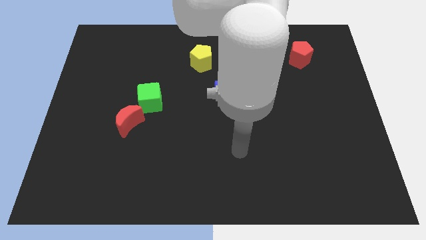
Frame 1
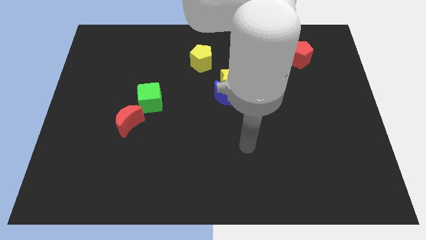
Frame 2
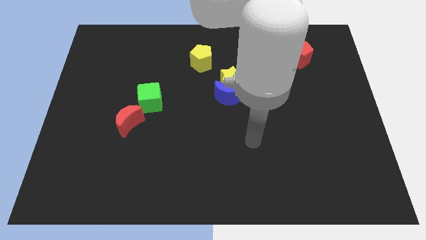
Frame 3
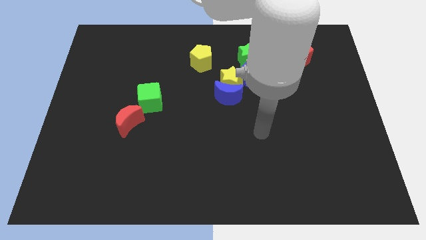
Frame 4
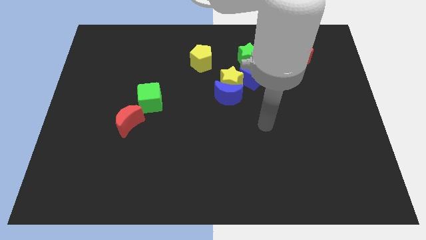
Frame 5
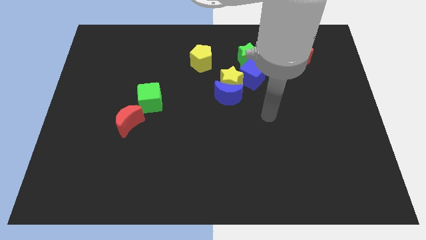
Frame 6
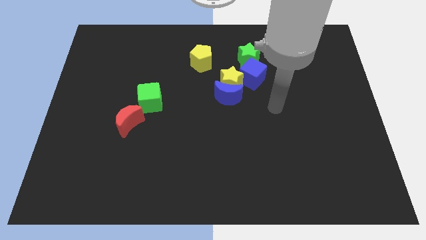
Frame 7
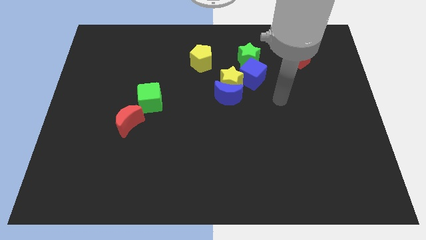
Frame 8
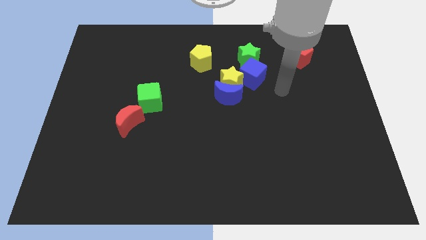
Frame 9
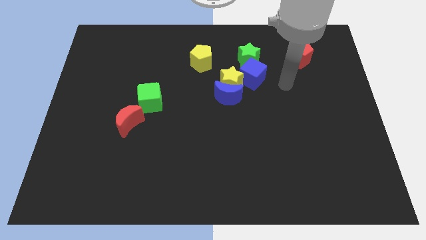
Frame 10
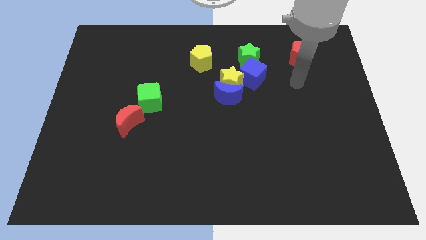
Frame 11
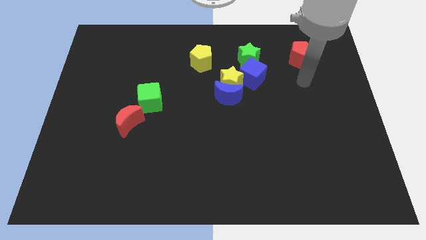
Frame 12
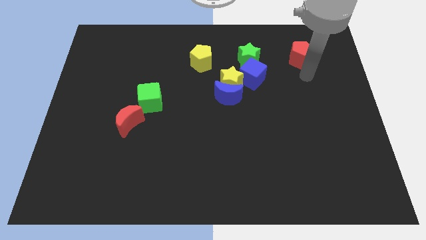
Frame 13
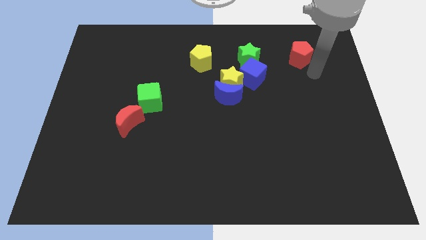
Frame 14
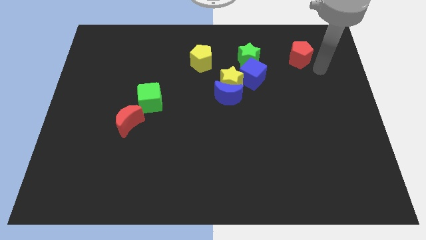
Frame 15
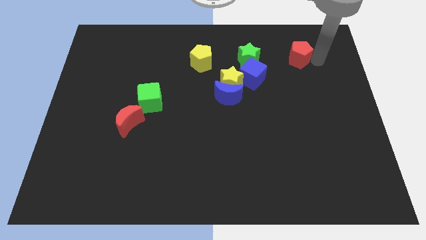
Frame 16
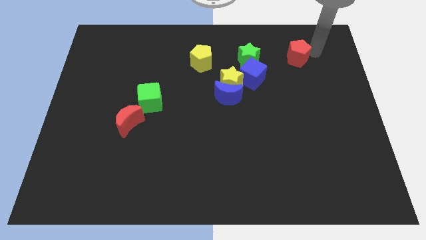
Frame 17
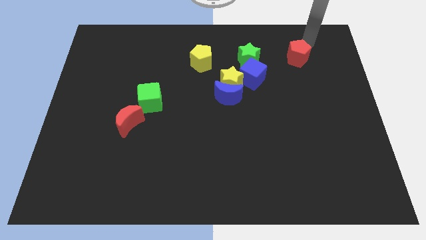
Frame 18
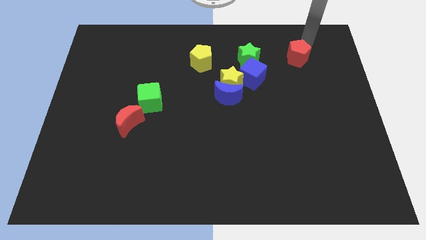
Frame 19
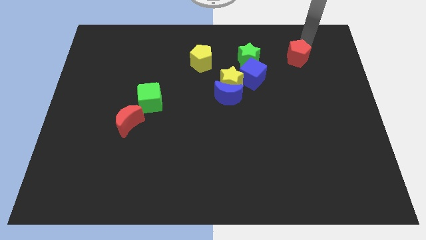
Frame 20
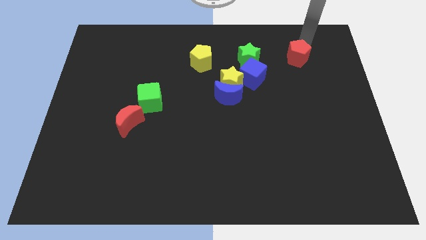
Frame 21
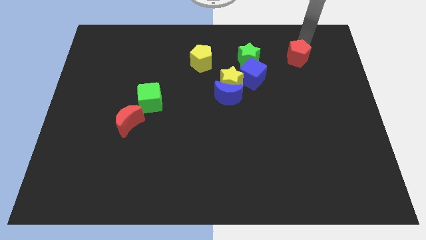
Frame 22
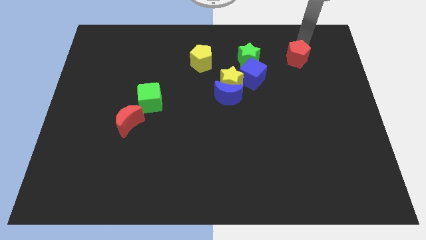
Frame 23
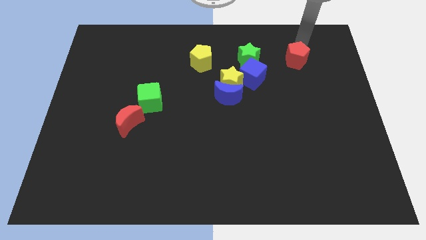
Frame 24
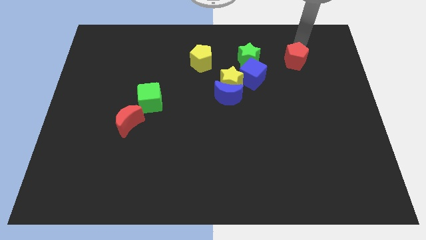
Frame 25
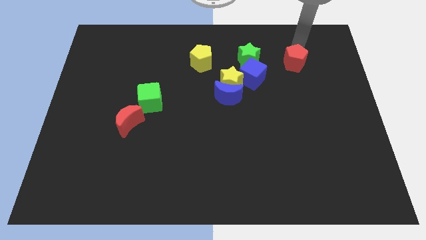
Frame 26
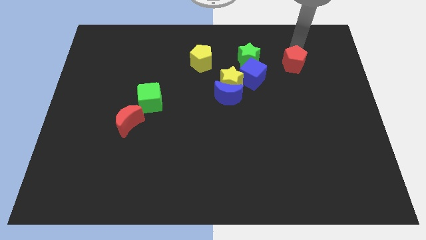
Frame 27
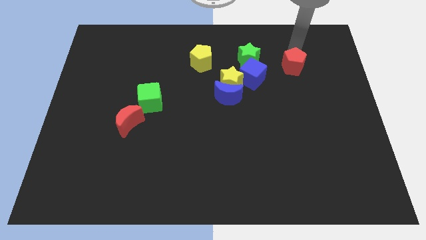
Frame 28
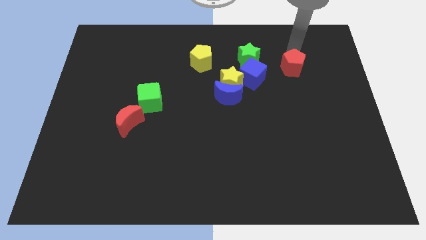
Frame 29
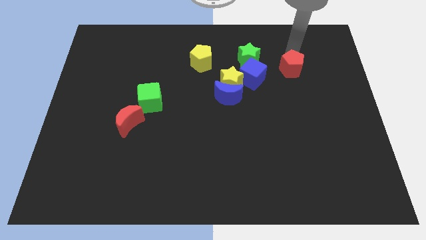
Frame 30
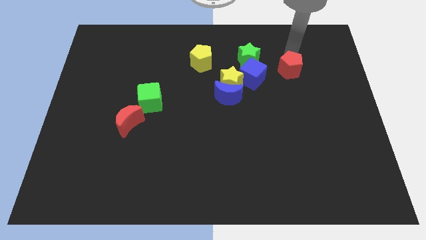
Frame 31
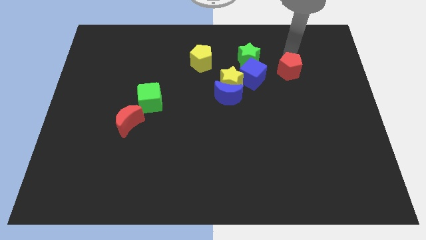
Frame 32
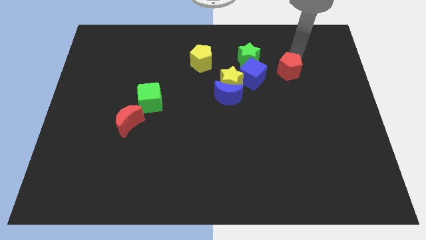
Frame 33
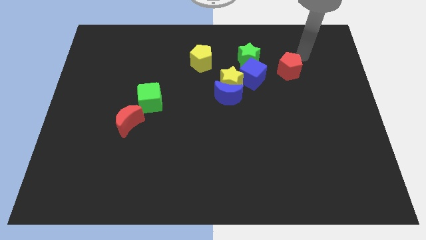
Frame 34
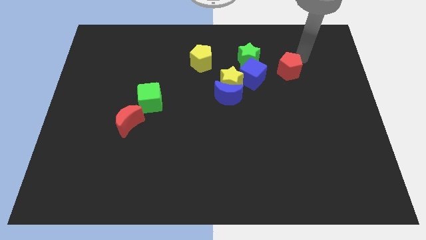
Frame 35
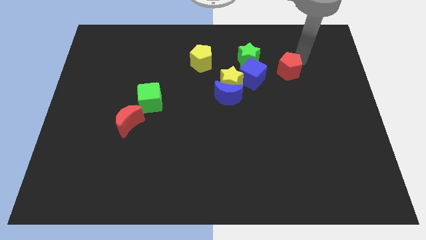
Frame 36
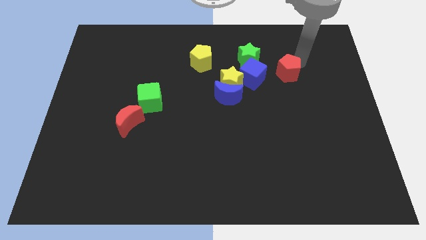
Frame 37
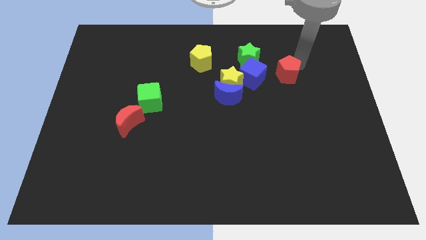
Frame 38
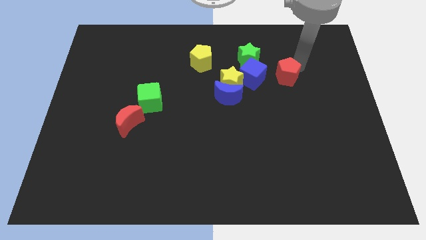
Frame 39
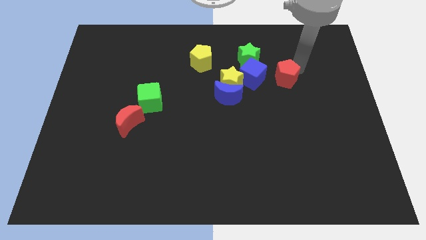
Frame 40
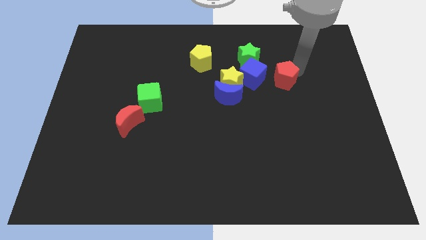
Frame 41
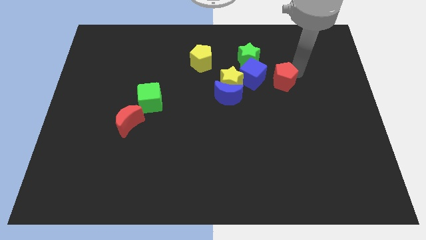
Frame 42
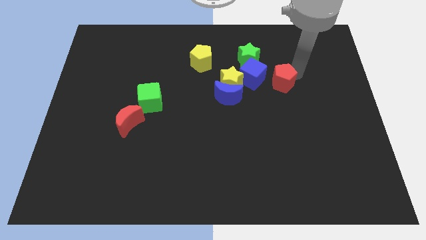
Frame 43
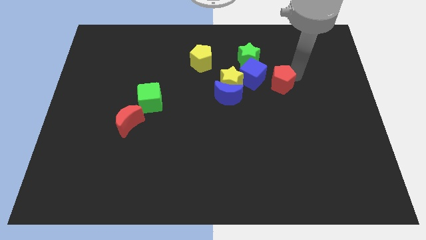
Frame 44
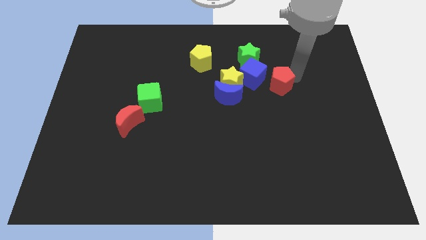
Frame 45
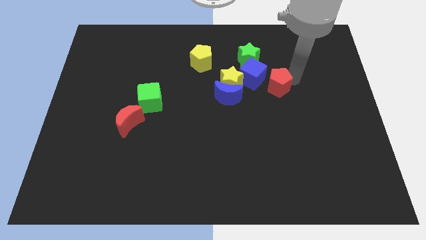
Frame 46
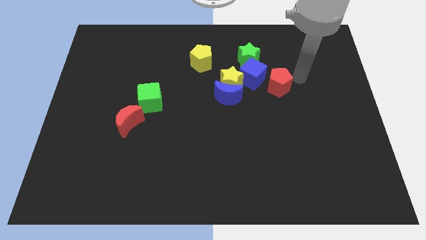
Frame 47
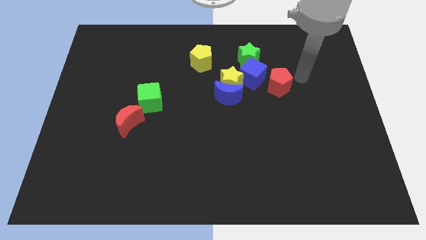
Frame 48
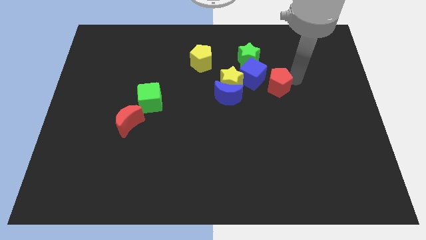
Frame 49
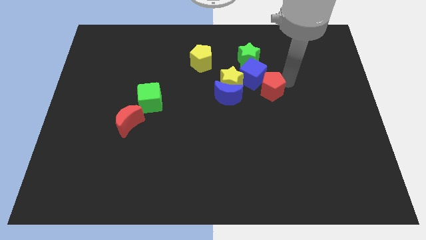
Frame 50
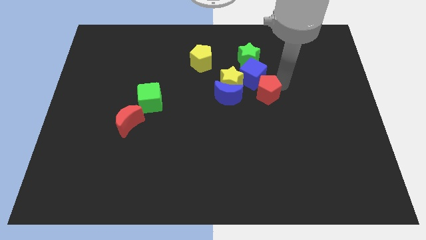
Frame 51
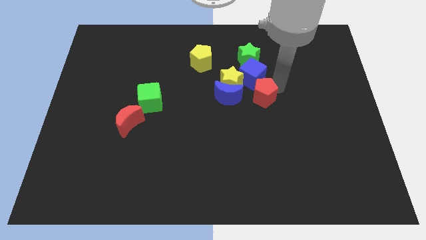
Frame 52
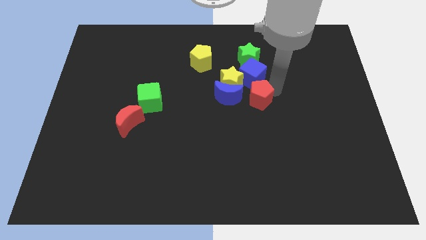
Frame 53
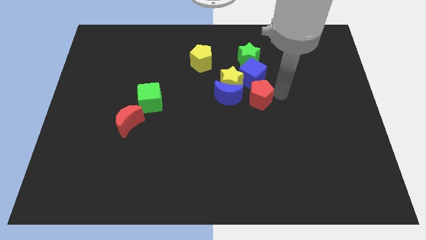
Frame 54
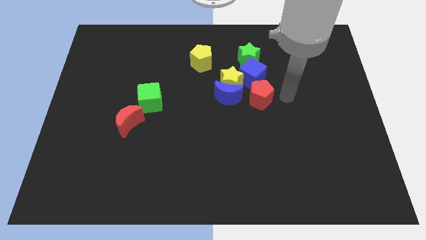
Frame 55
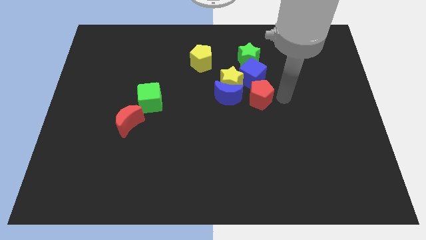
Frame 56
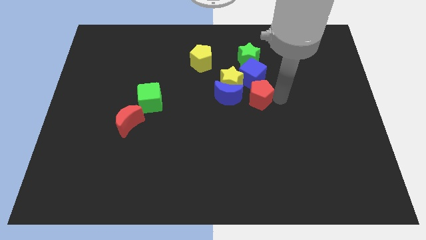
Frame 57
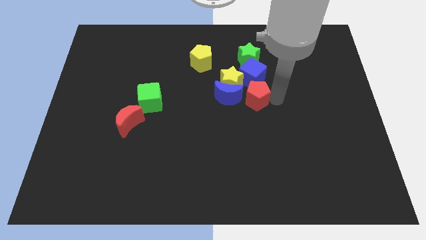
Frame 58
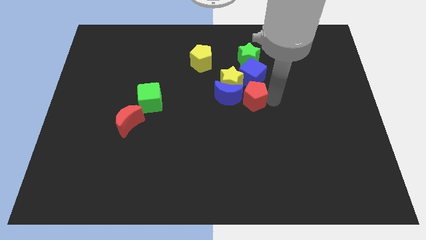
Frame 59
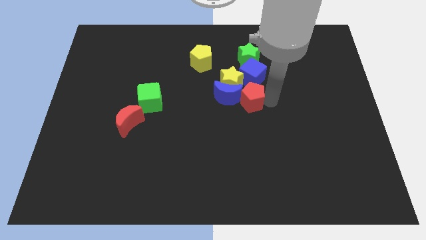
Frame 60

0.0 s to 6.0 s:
move the red pentagon to the blue moon

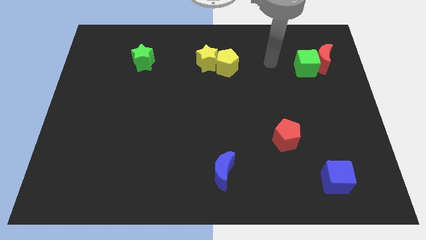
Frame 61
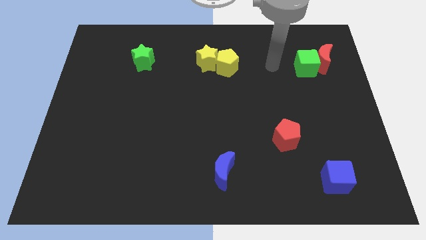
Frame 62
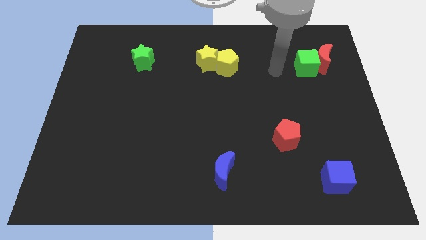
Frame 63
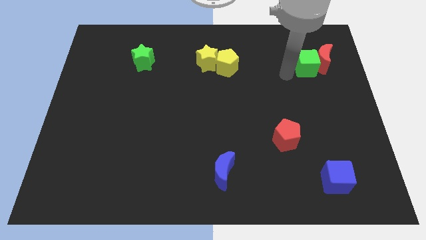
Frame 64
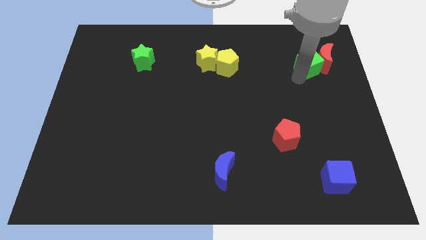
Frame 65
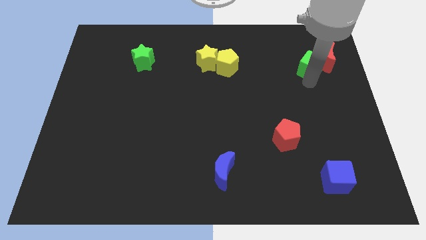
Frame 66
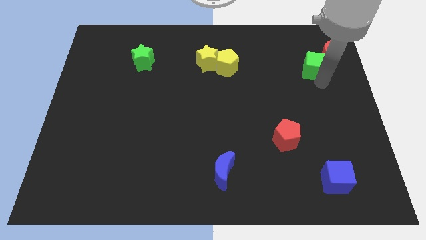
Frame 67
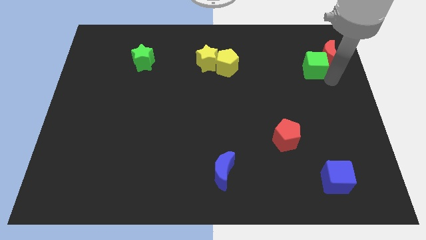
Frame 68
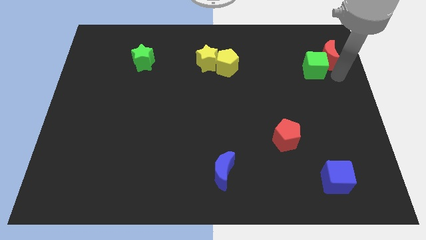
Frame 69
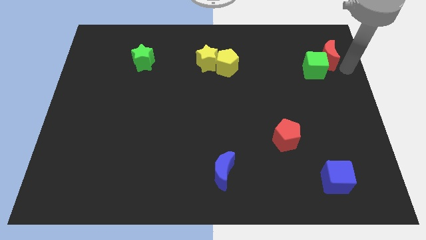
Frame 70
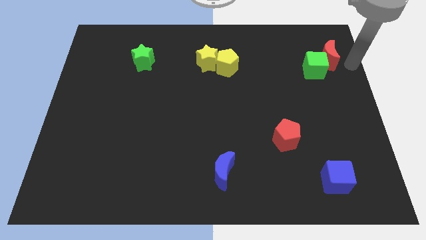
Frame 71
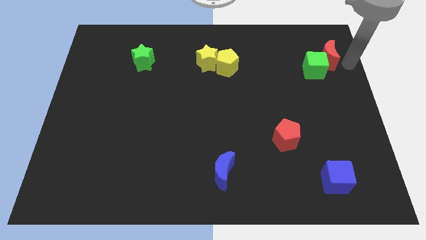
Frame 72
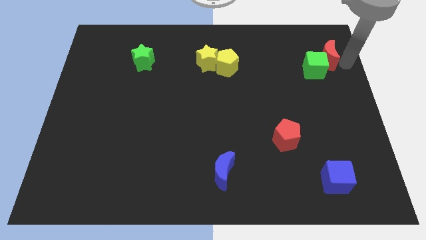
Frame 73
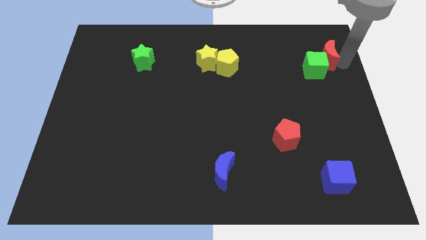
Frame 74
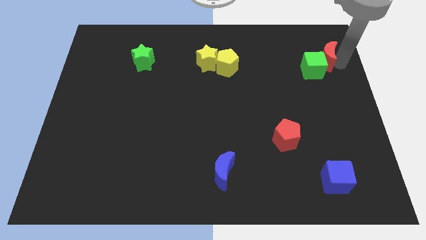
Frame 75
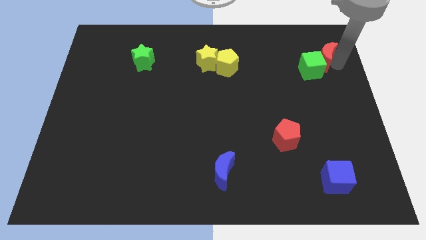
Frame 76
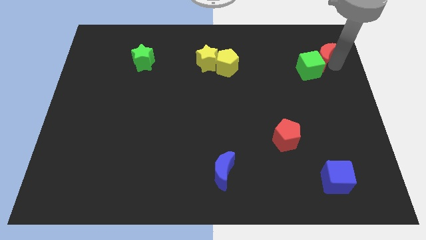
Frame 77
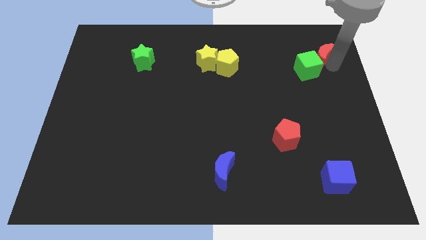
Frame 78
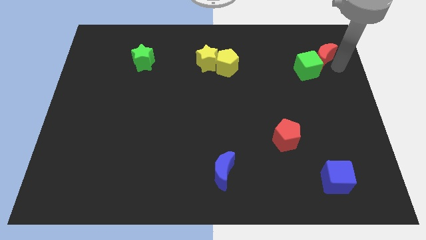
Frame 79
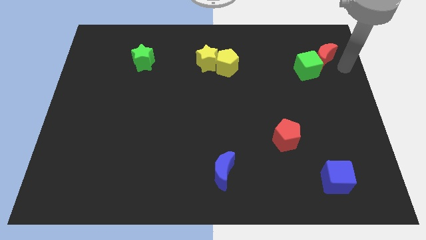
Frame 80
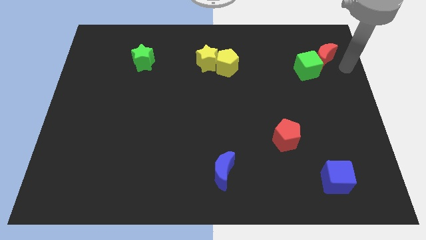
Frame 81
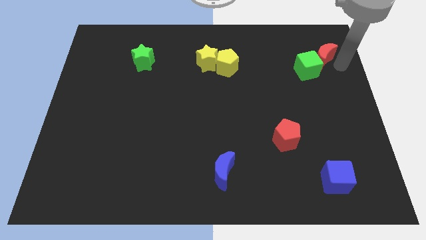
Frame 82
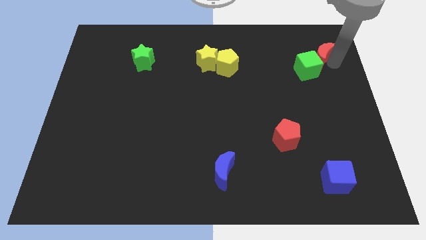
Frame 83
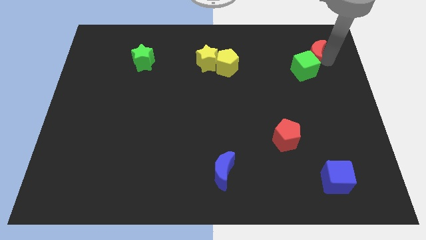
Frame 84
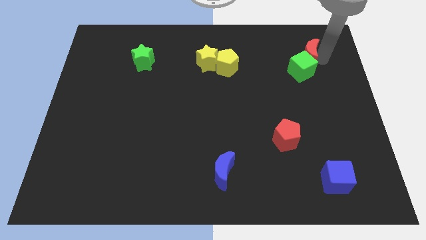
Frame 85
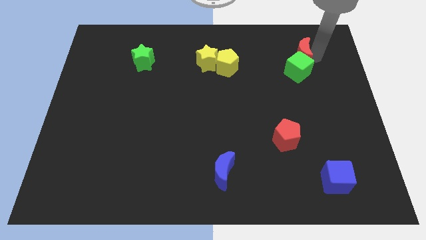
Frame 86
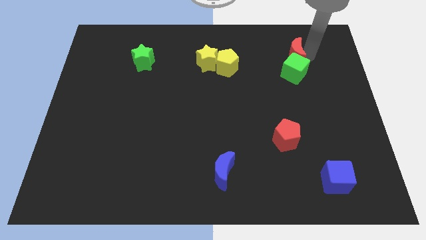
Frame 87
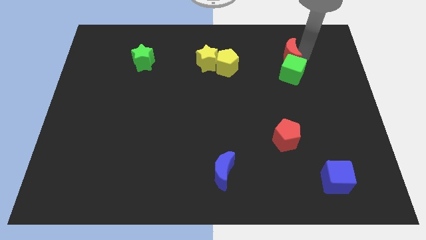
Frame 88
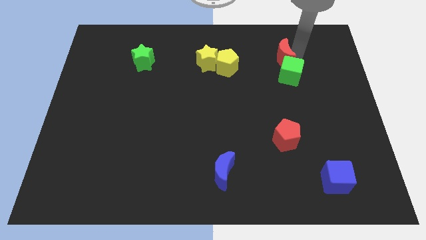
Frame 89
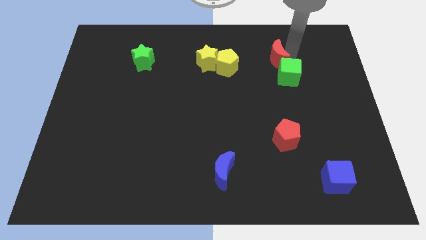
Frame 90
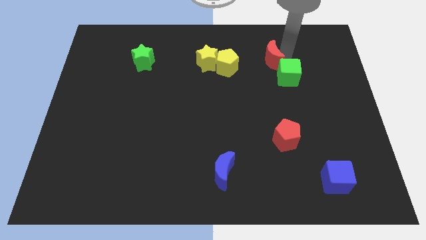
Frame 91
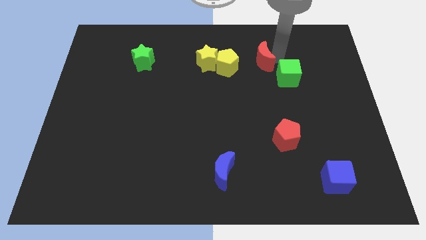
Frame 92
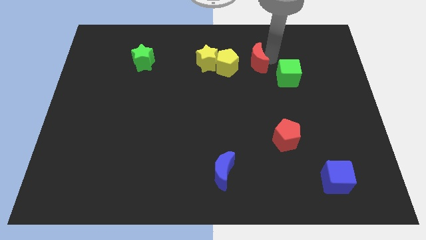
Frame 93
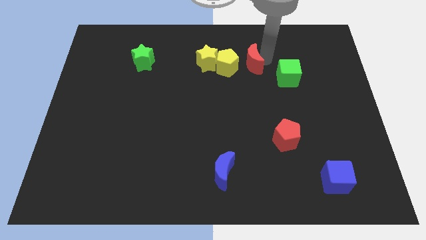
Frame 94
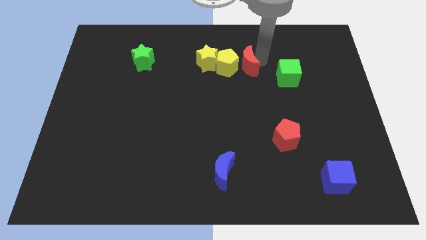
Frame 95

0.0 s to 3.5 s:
move the red moon to the yellow pentagon
